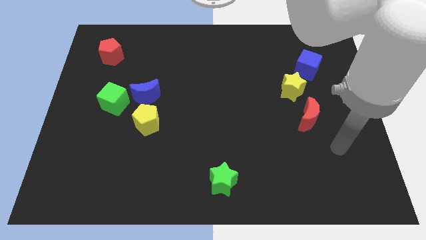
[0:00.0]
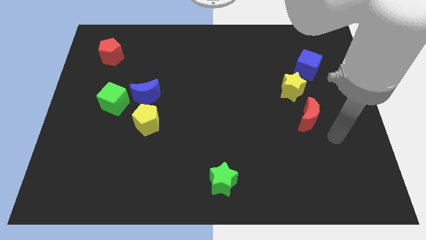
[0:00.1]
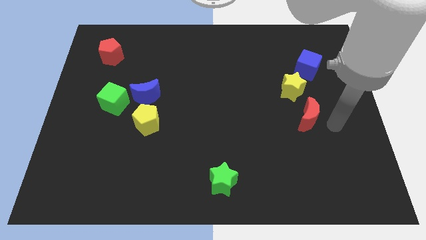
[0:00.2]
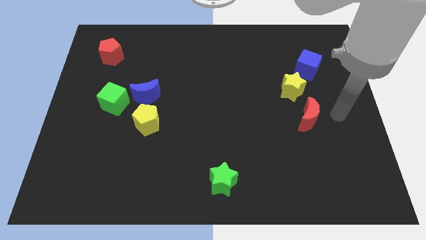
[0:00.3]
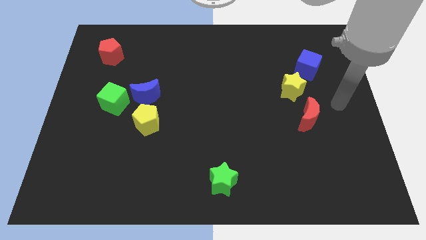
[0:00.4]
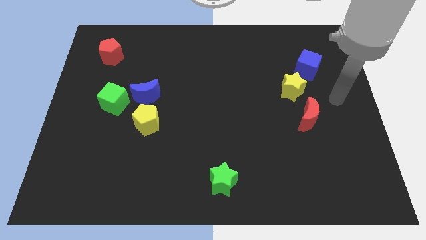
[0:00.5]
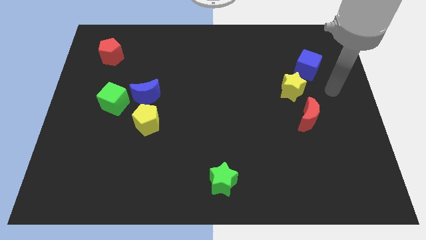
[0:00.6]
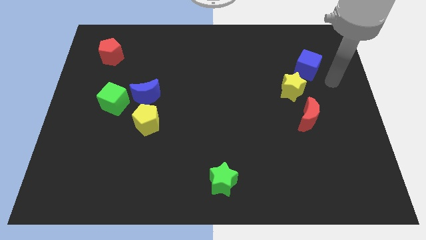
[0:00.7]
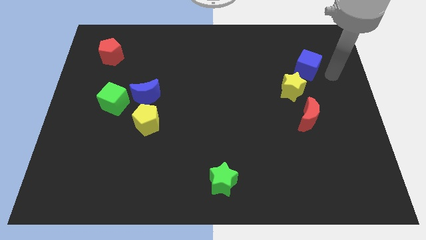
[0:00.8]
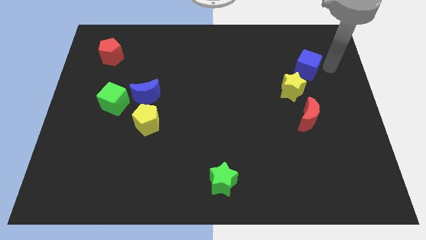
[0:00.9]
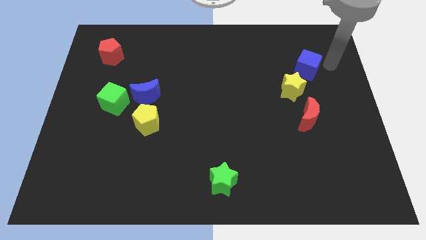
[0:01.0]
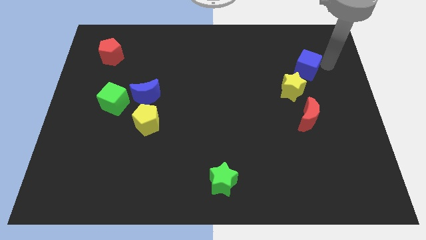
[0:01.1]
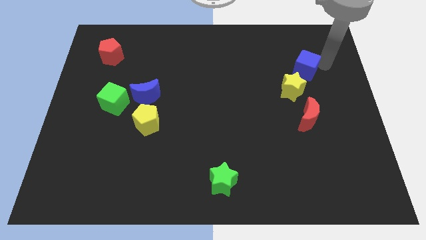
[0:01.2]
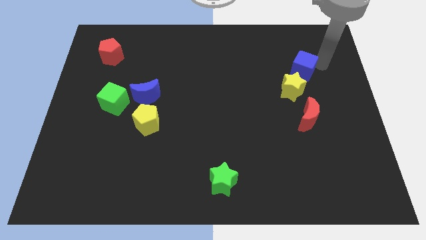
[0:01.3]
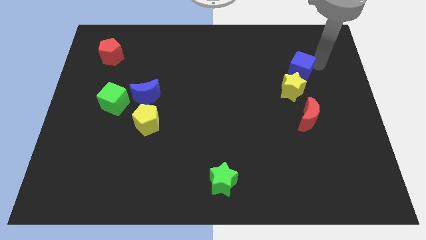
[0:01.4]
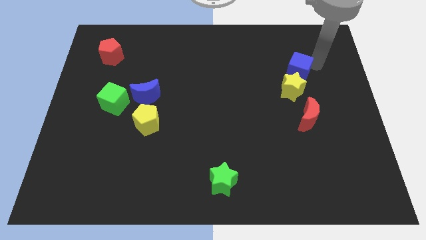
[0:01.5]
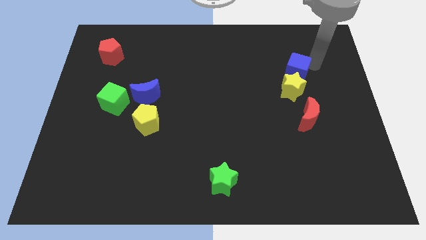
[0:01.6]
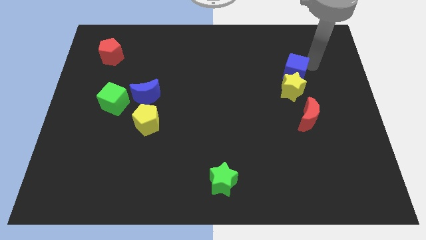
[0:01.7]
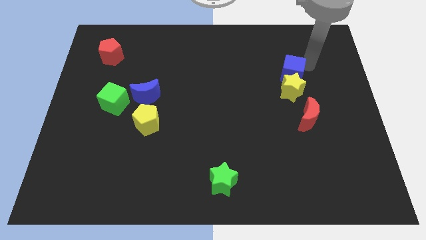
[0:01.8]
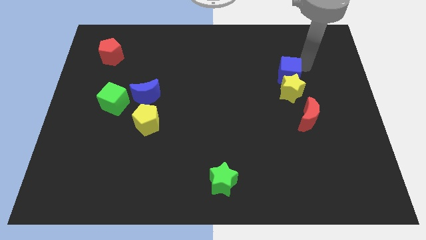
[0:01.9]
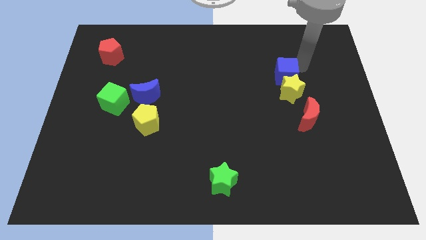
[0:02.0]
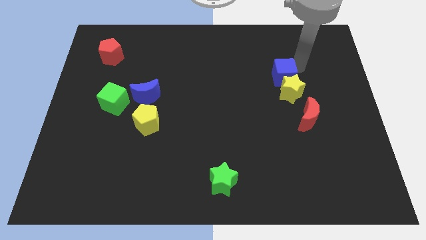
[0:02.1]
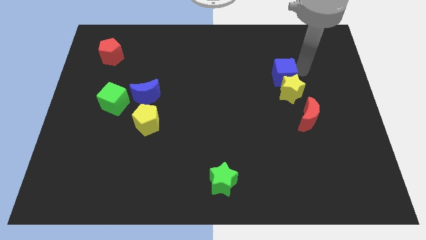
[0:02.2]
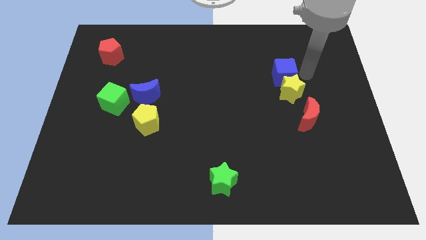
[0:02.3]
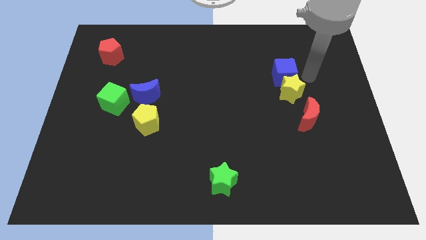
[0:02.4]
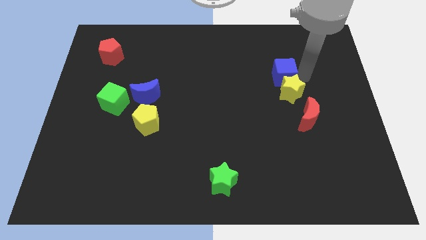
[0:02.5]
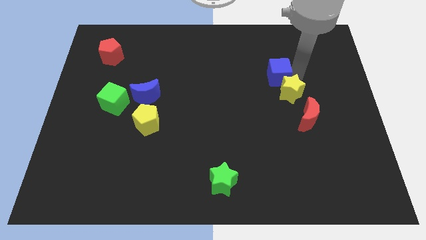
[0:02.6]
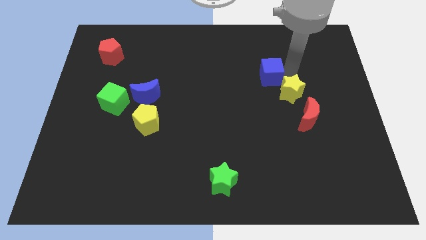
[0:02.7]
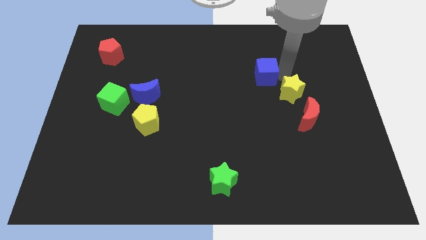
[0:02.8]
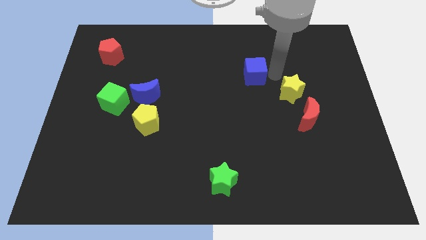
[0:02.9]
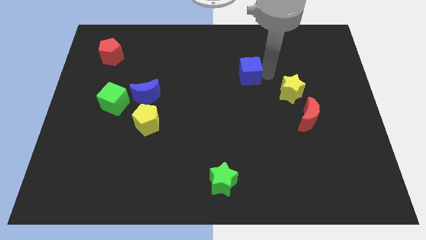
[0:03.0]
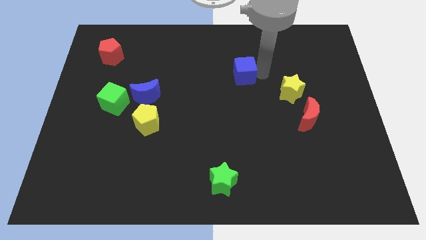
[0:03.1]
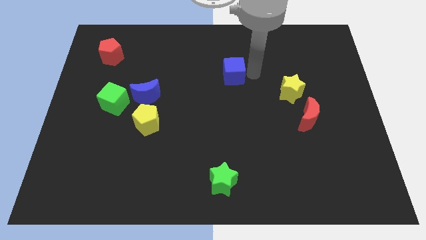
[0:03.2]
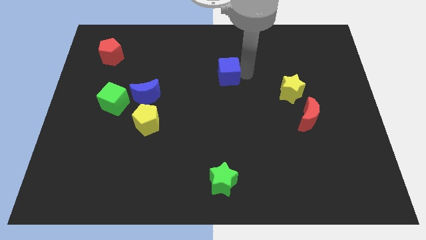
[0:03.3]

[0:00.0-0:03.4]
move the blue cube to the left

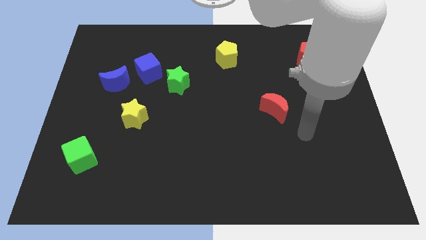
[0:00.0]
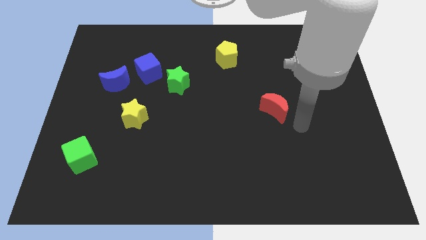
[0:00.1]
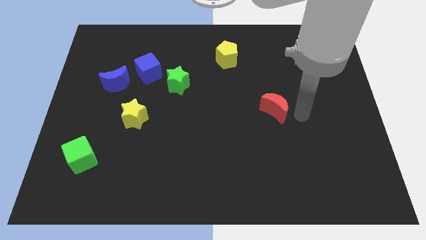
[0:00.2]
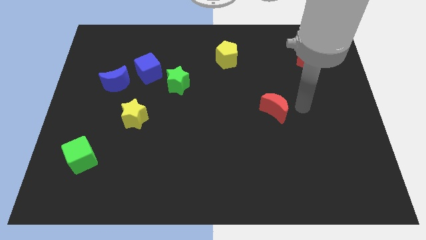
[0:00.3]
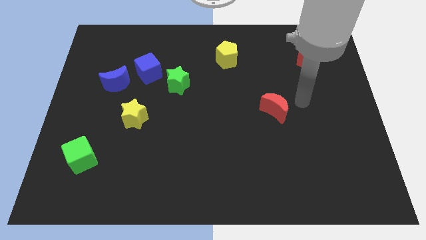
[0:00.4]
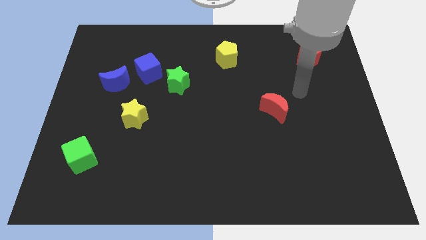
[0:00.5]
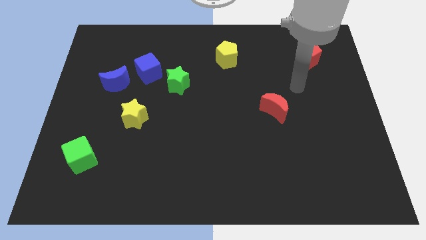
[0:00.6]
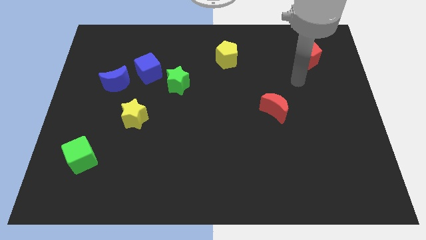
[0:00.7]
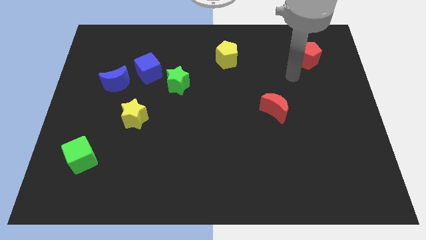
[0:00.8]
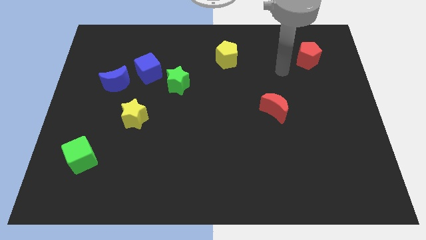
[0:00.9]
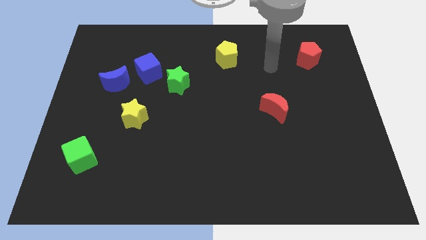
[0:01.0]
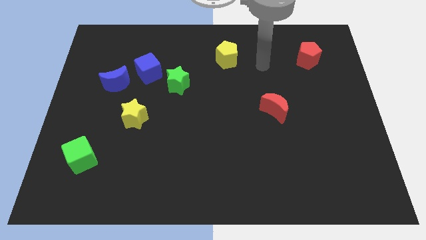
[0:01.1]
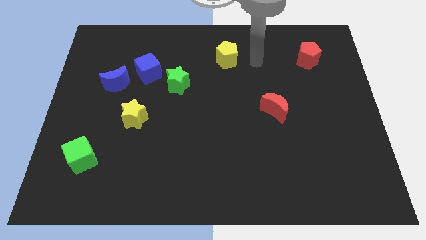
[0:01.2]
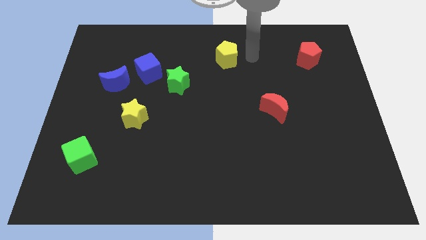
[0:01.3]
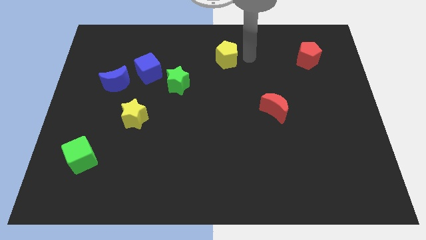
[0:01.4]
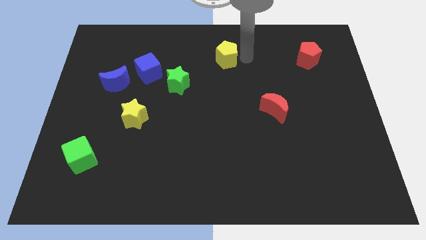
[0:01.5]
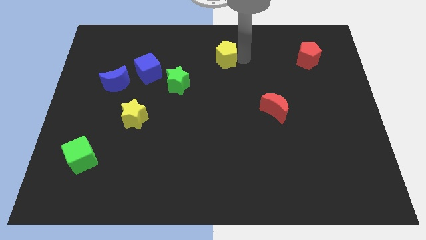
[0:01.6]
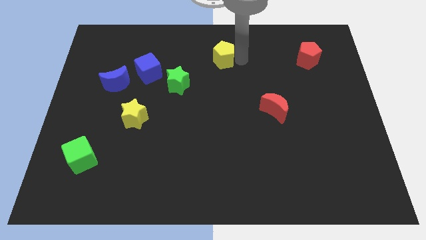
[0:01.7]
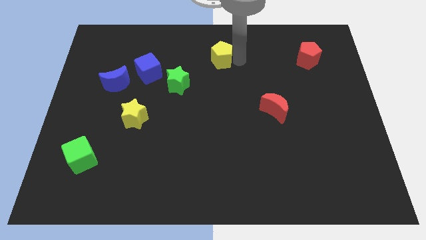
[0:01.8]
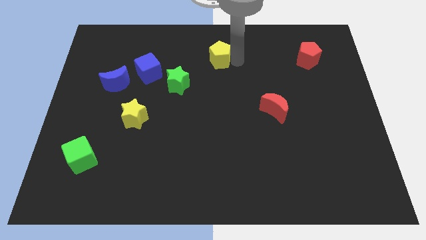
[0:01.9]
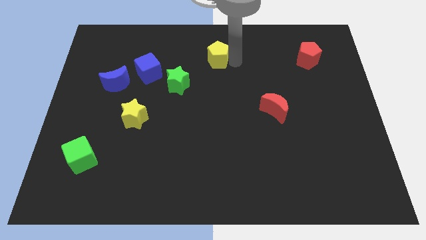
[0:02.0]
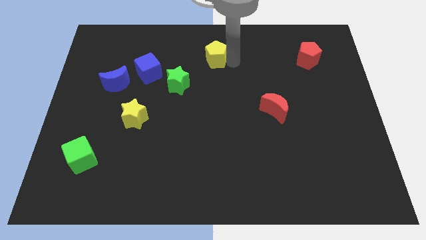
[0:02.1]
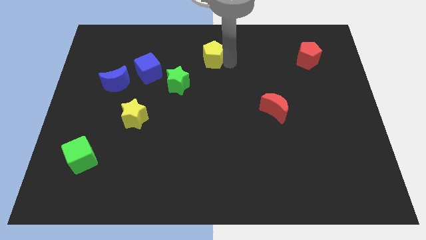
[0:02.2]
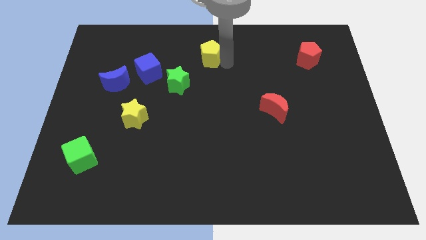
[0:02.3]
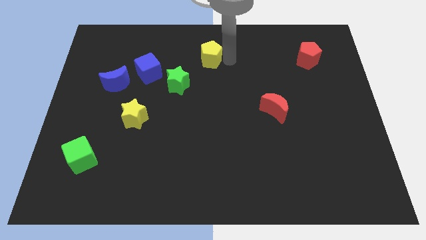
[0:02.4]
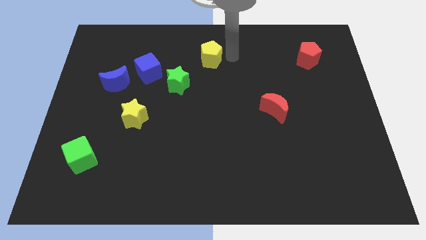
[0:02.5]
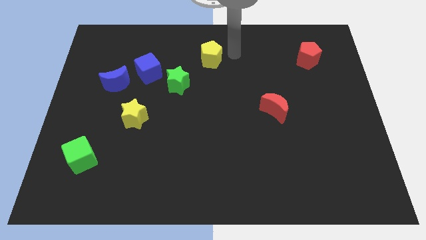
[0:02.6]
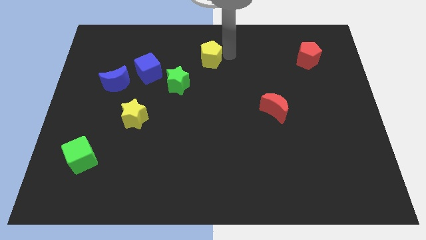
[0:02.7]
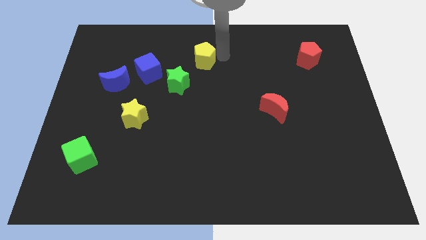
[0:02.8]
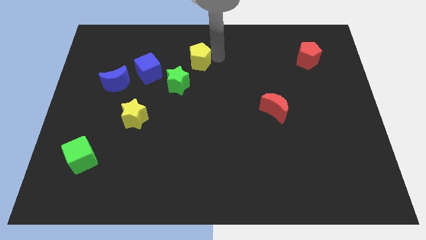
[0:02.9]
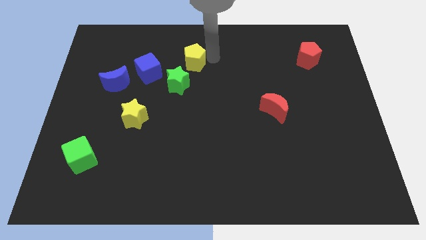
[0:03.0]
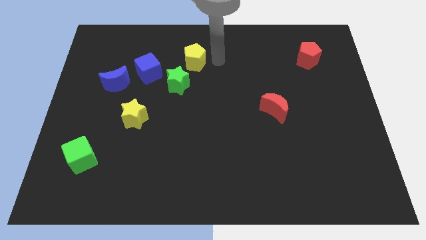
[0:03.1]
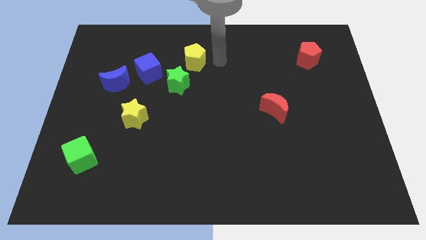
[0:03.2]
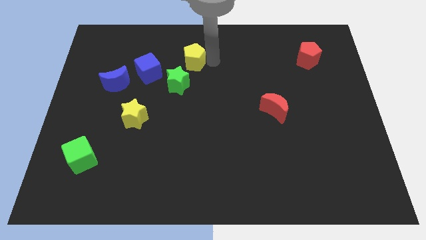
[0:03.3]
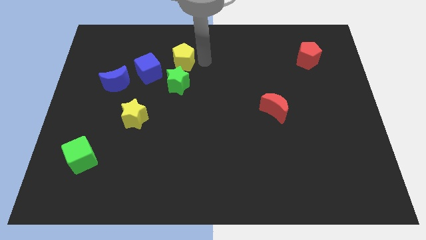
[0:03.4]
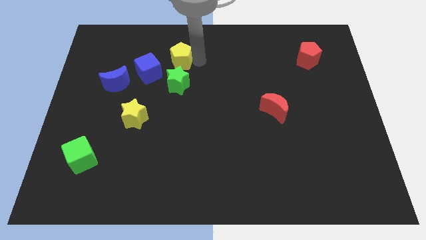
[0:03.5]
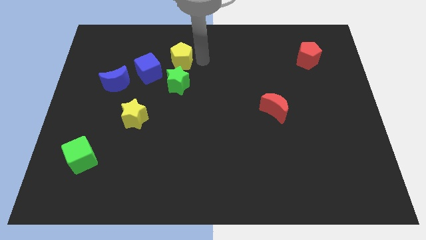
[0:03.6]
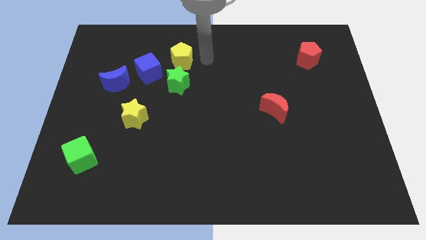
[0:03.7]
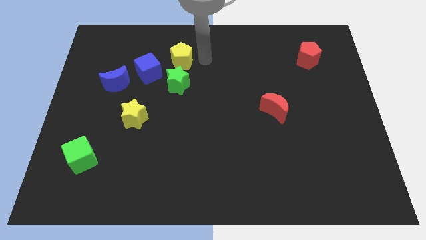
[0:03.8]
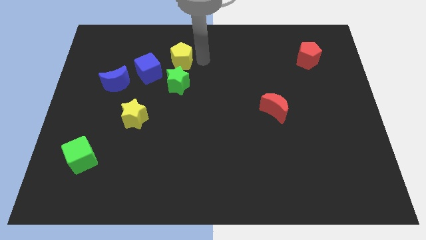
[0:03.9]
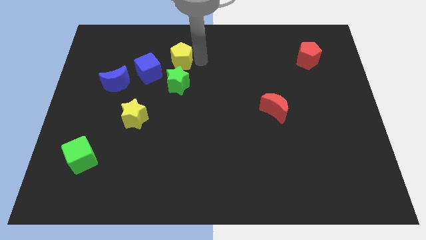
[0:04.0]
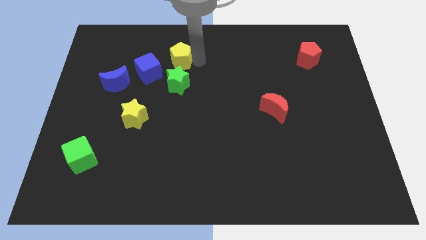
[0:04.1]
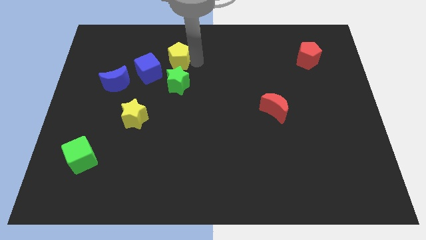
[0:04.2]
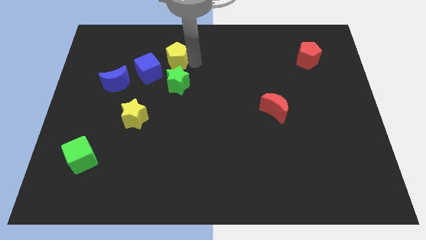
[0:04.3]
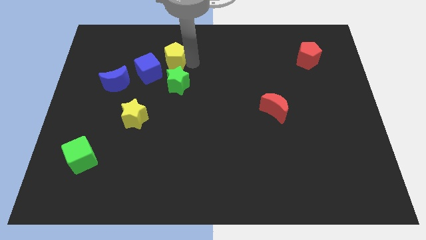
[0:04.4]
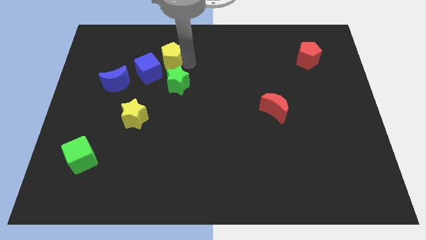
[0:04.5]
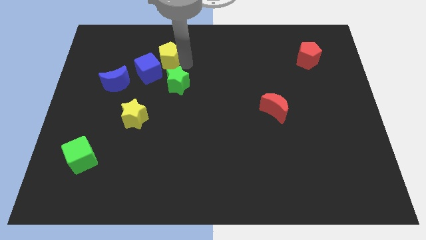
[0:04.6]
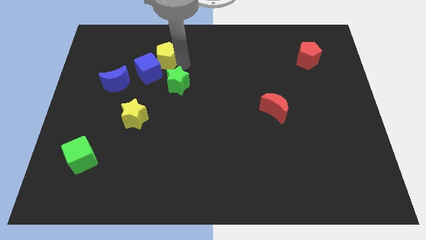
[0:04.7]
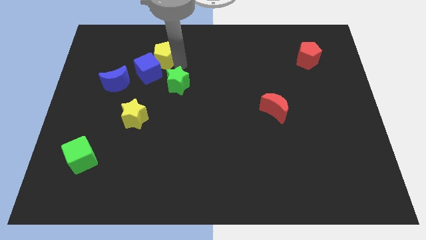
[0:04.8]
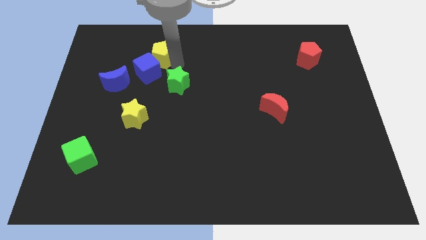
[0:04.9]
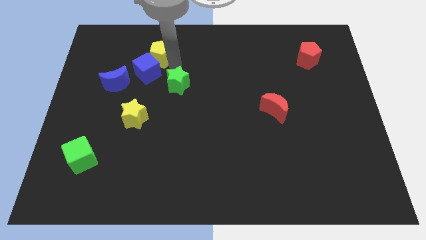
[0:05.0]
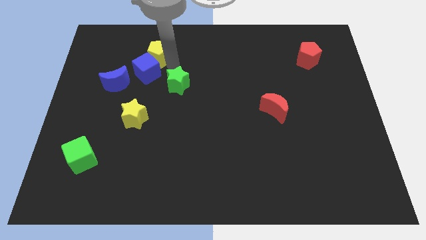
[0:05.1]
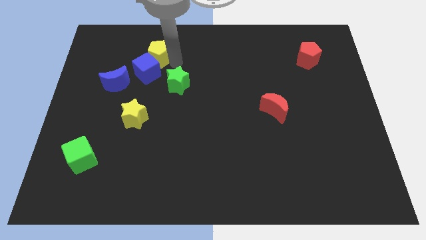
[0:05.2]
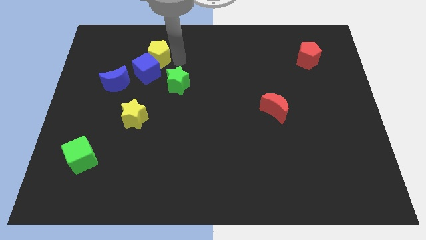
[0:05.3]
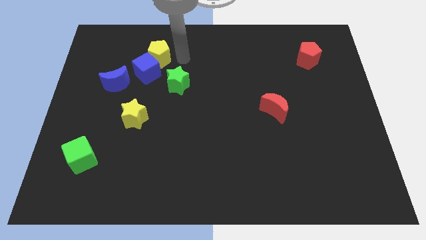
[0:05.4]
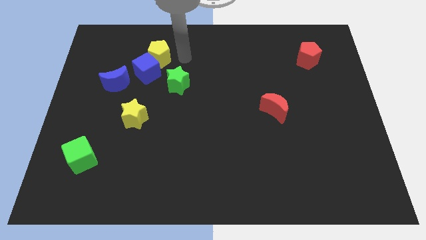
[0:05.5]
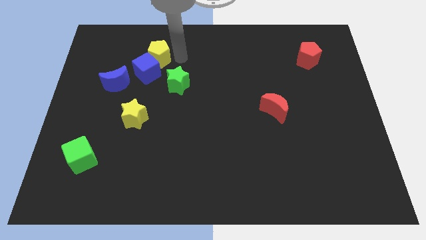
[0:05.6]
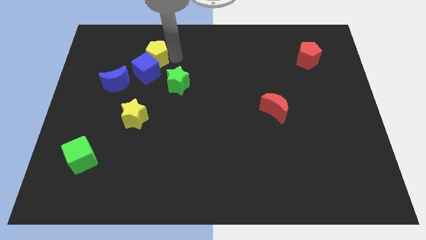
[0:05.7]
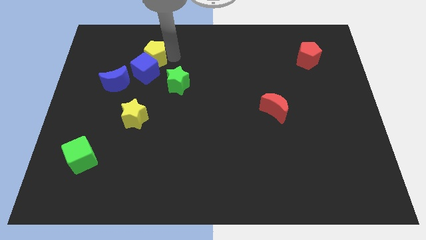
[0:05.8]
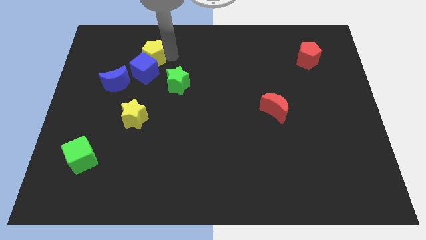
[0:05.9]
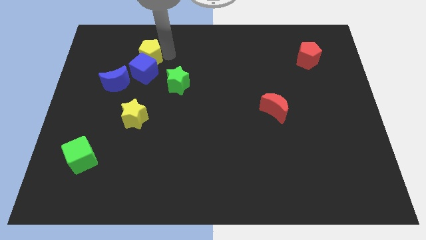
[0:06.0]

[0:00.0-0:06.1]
slide the yellow pentagon left
